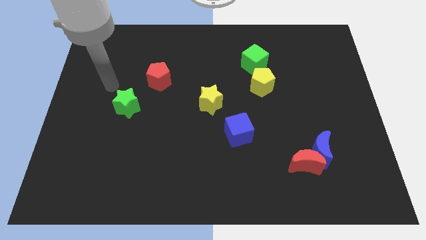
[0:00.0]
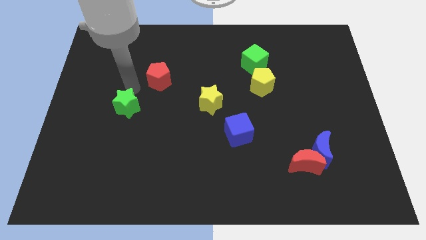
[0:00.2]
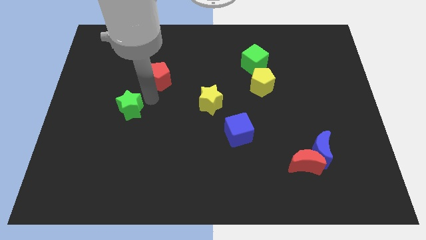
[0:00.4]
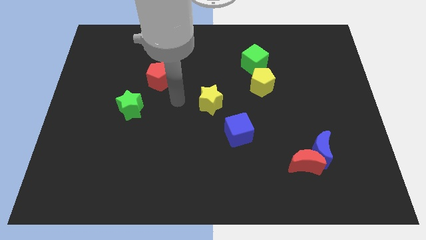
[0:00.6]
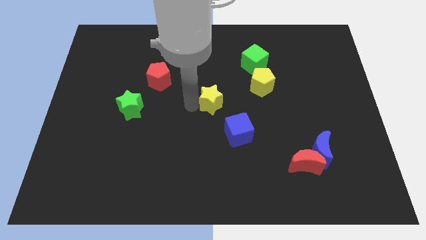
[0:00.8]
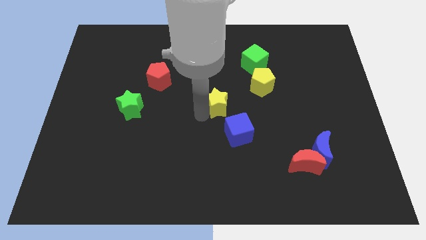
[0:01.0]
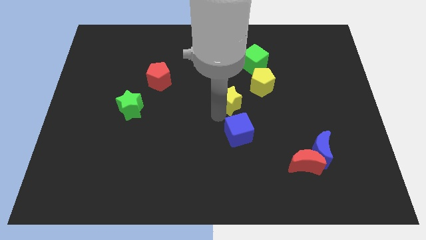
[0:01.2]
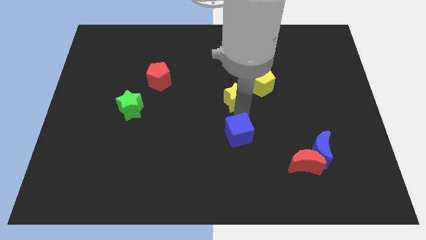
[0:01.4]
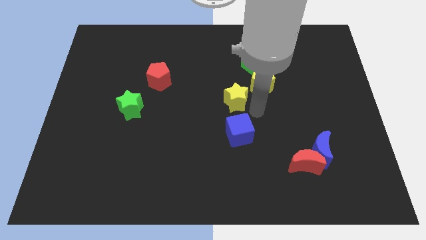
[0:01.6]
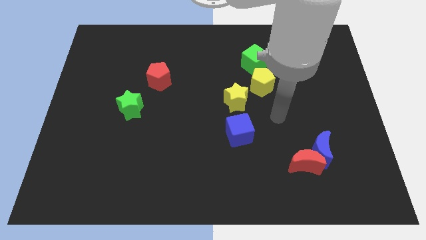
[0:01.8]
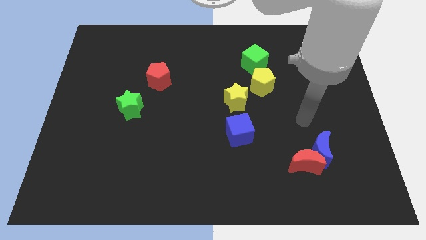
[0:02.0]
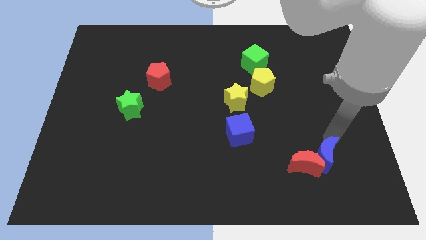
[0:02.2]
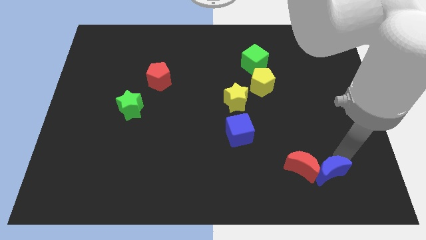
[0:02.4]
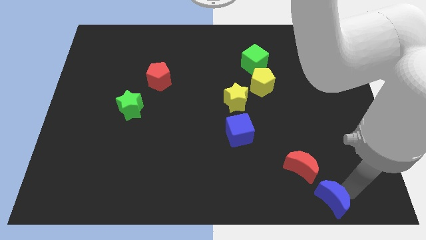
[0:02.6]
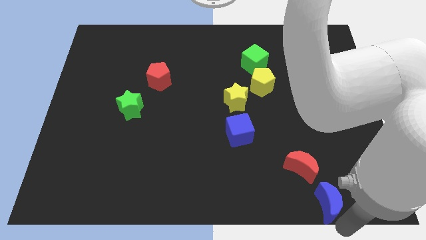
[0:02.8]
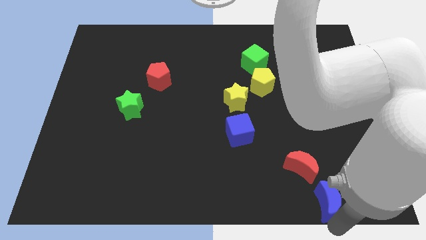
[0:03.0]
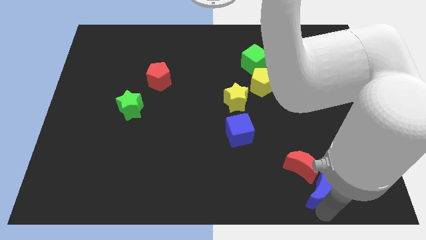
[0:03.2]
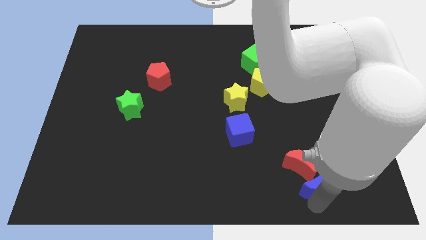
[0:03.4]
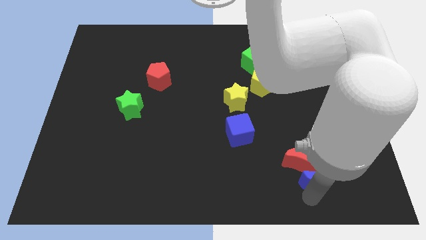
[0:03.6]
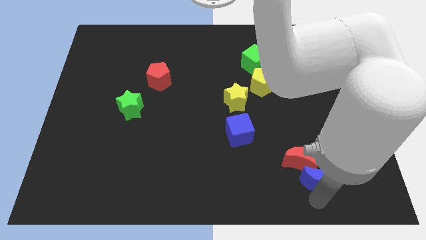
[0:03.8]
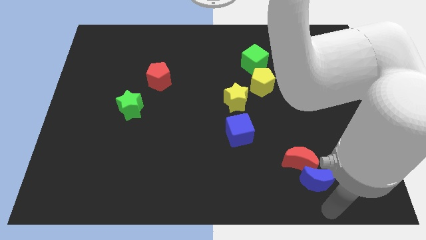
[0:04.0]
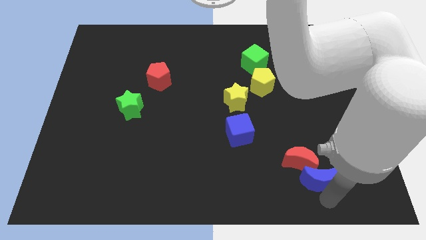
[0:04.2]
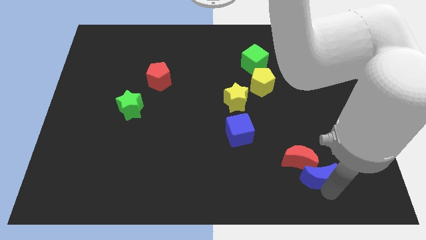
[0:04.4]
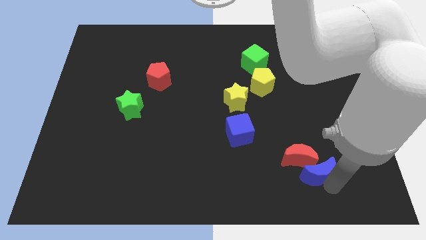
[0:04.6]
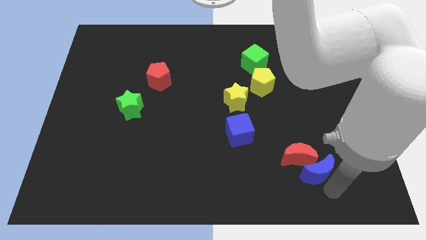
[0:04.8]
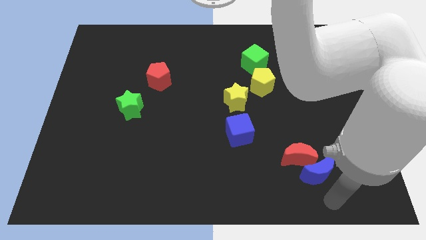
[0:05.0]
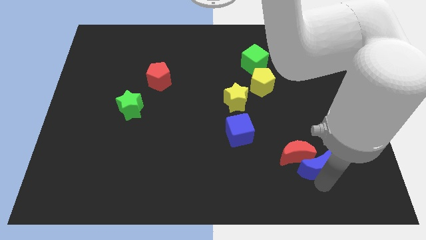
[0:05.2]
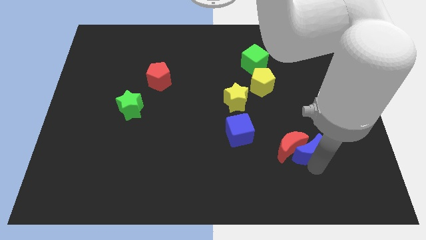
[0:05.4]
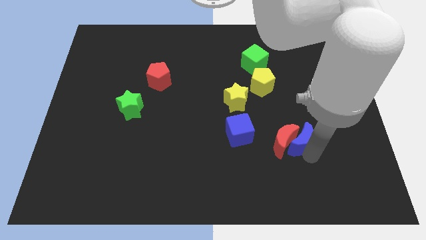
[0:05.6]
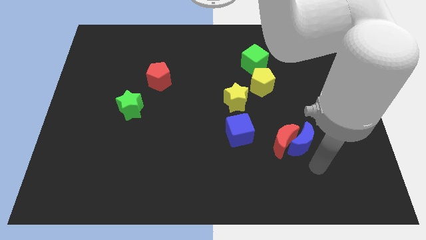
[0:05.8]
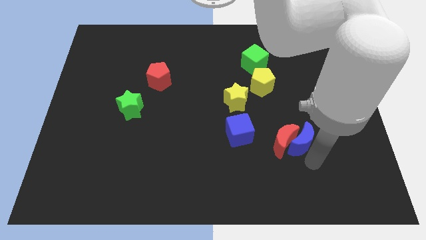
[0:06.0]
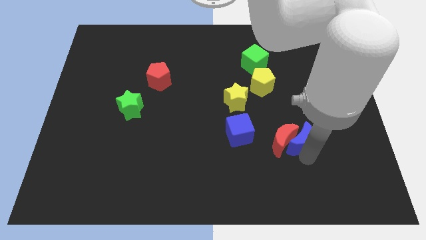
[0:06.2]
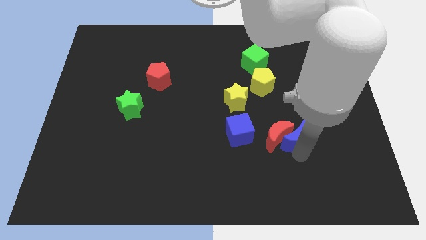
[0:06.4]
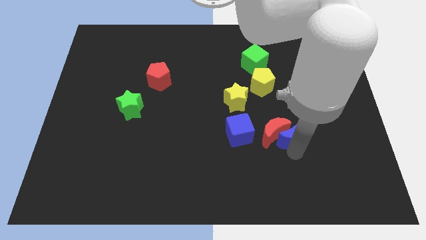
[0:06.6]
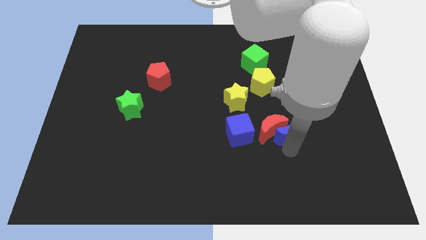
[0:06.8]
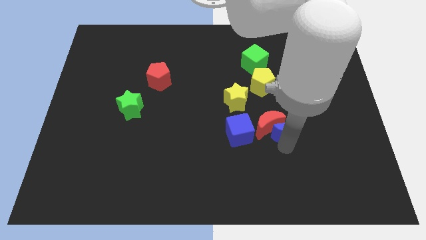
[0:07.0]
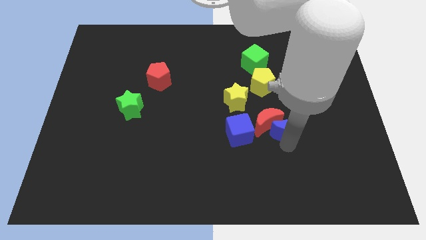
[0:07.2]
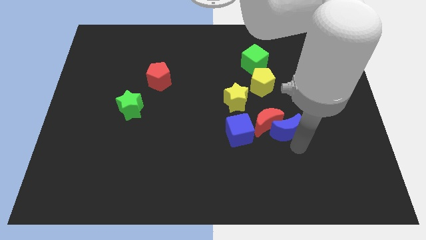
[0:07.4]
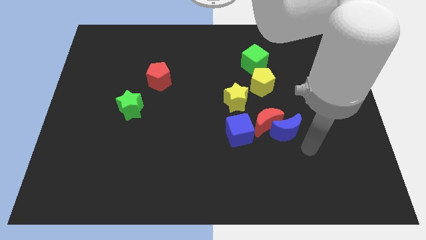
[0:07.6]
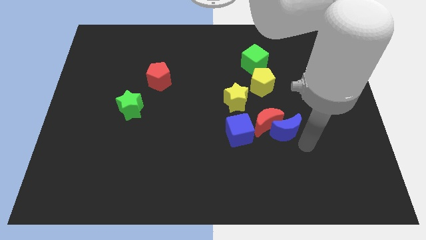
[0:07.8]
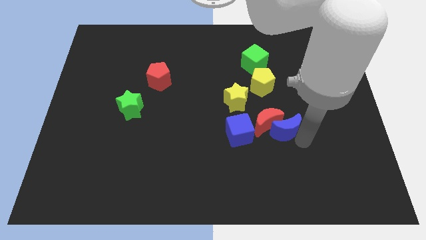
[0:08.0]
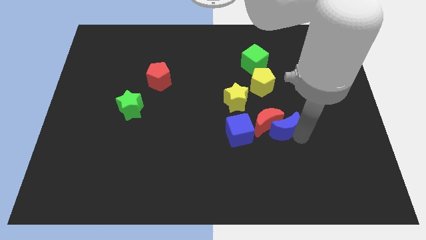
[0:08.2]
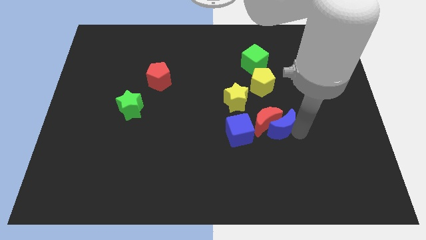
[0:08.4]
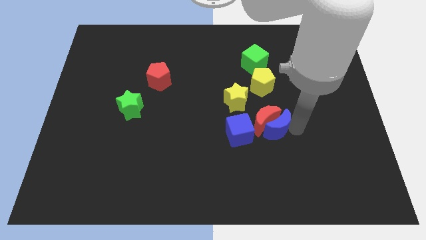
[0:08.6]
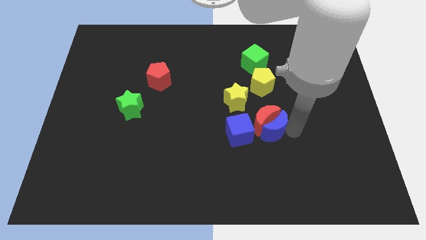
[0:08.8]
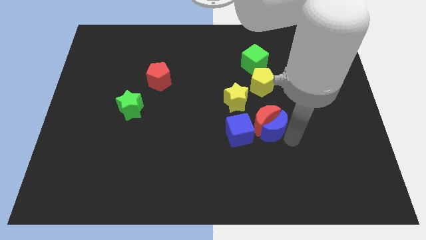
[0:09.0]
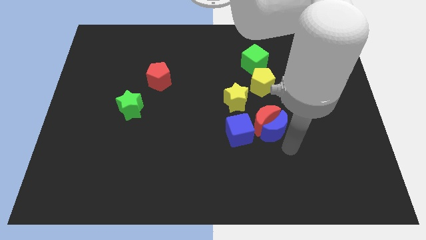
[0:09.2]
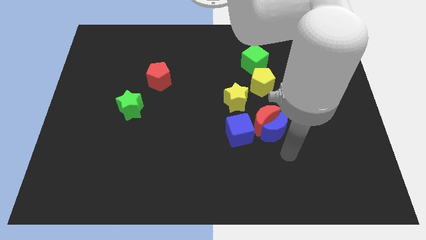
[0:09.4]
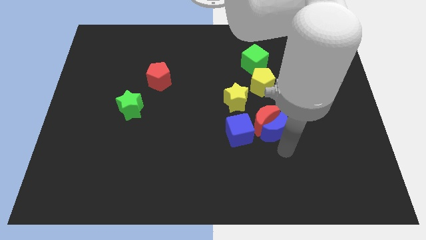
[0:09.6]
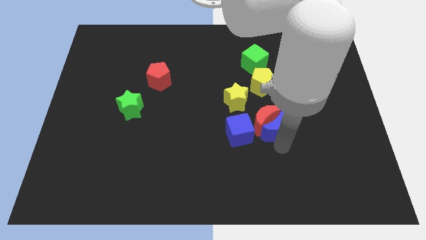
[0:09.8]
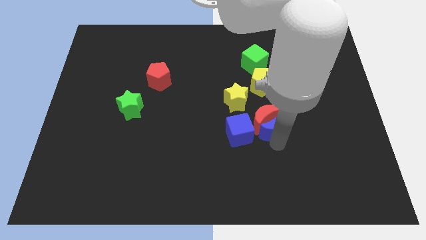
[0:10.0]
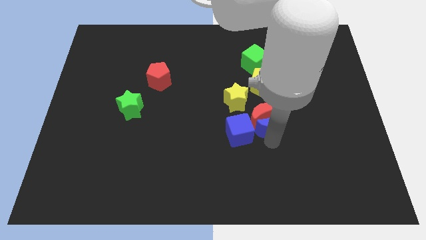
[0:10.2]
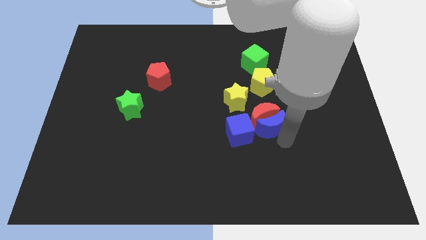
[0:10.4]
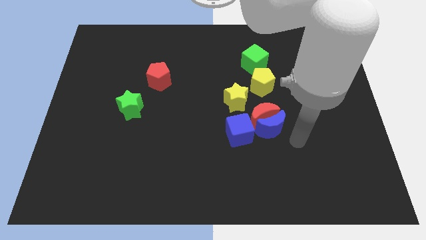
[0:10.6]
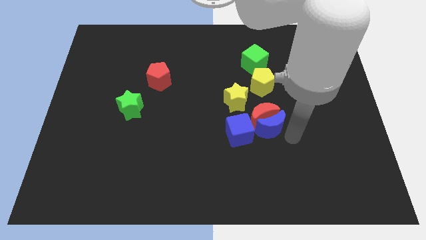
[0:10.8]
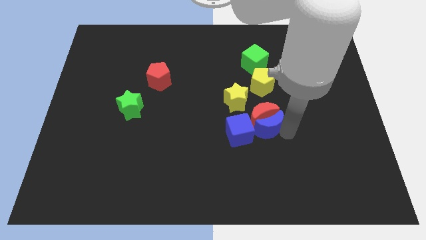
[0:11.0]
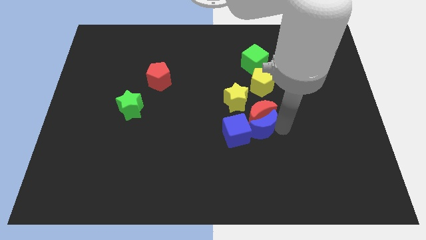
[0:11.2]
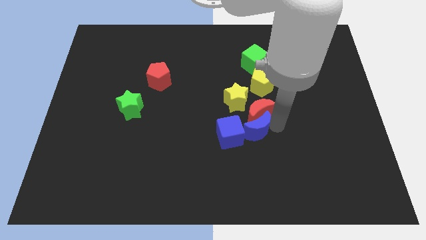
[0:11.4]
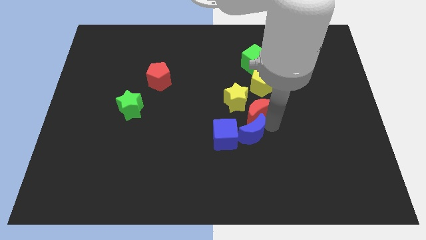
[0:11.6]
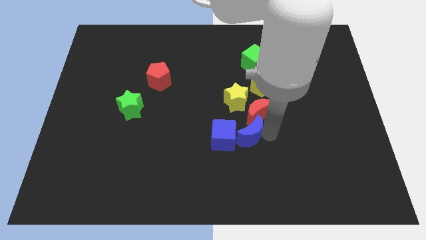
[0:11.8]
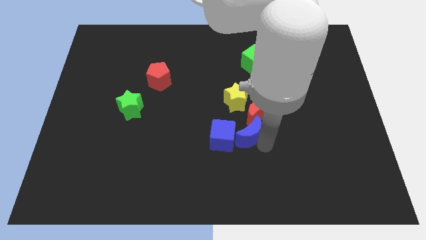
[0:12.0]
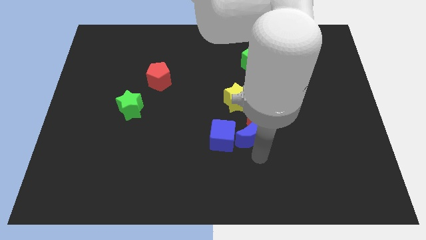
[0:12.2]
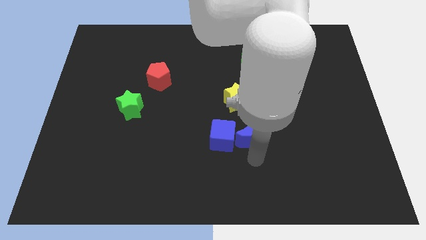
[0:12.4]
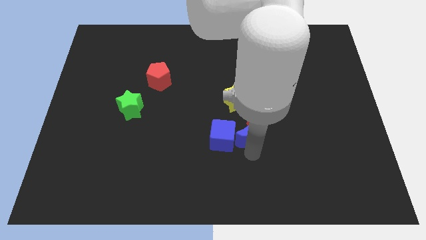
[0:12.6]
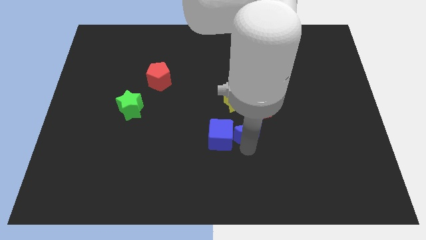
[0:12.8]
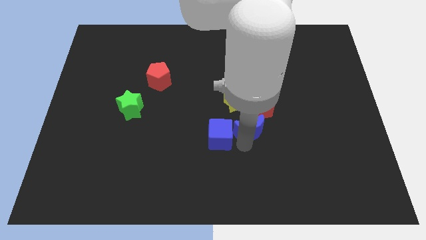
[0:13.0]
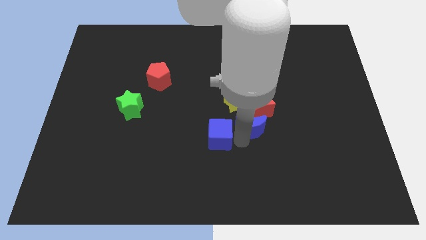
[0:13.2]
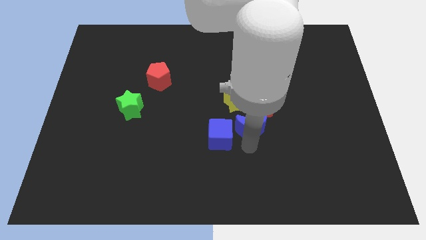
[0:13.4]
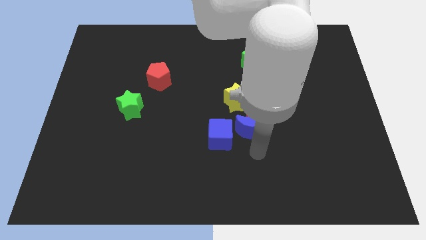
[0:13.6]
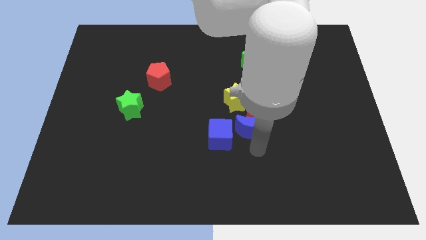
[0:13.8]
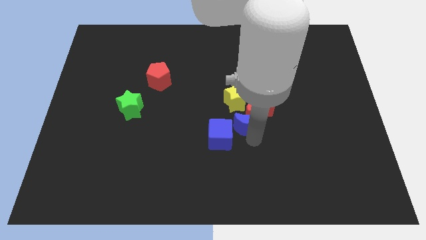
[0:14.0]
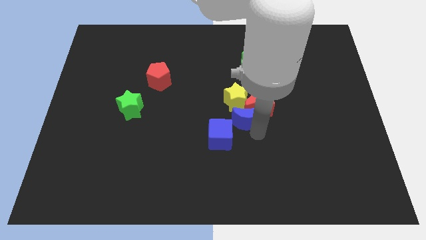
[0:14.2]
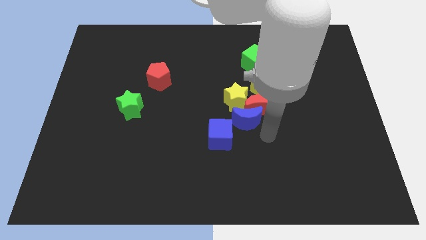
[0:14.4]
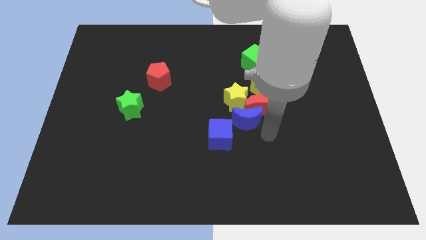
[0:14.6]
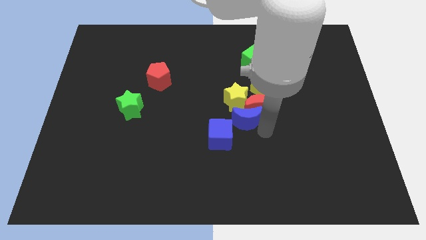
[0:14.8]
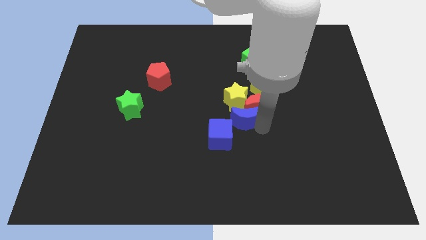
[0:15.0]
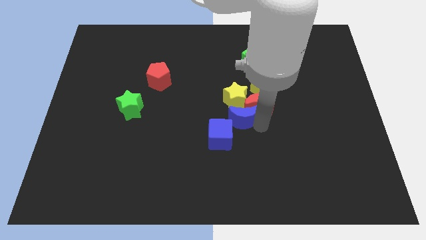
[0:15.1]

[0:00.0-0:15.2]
put the blue moon next to the yellow star
